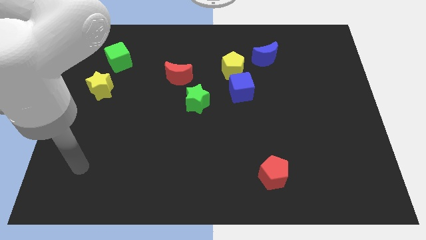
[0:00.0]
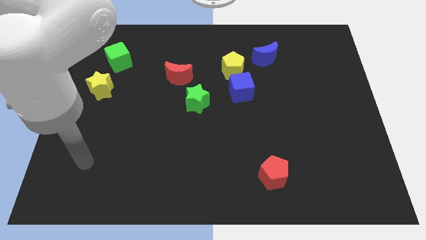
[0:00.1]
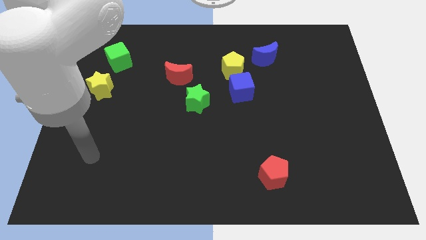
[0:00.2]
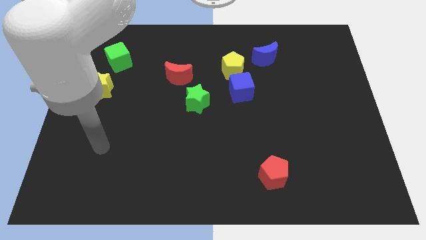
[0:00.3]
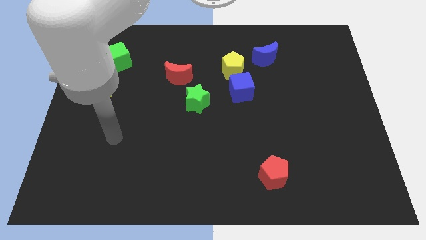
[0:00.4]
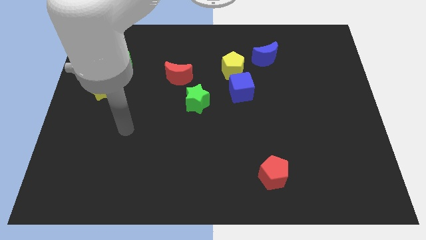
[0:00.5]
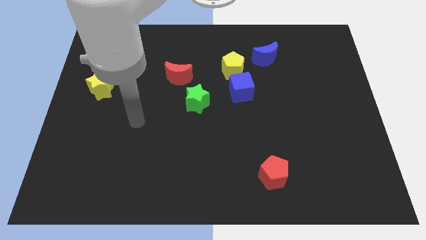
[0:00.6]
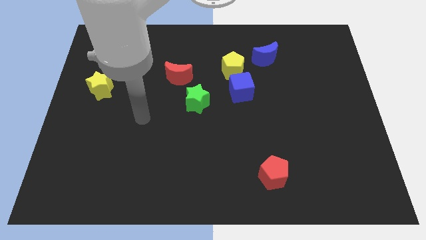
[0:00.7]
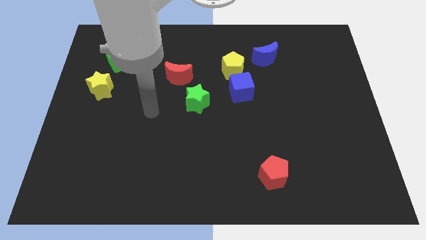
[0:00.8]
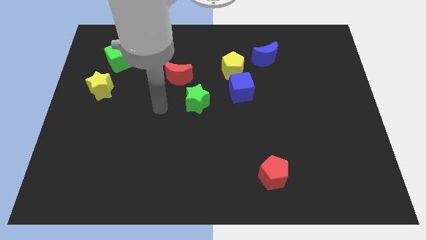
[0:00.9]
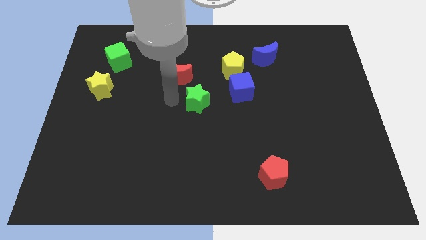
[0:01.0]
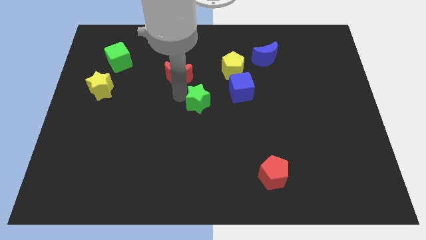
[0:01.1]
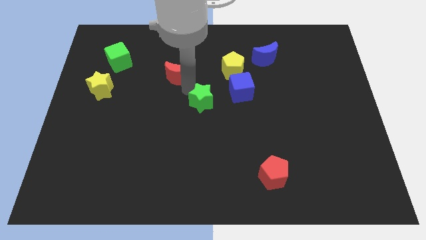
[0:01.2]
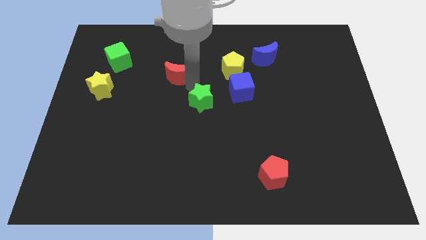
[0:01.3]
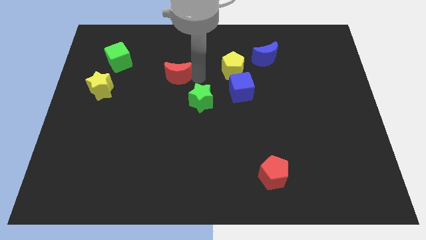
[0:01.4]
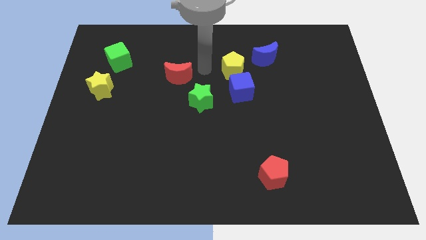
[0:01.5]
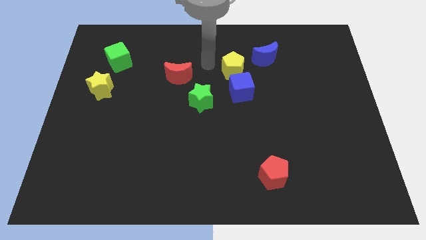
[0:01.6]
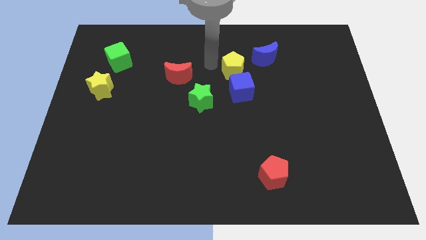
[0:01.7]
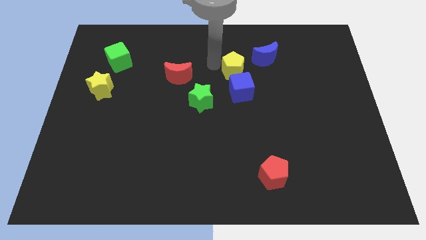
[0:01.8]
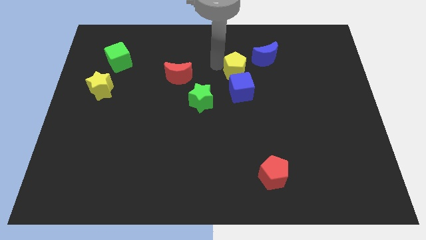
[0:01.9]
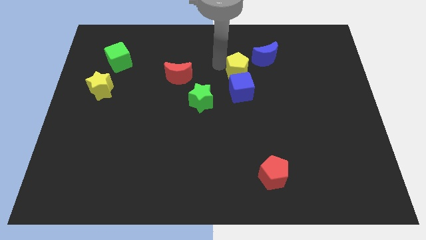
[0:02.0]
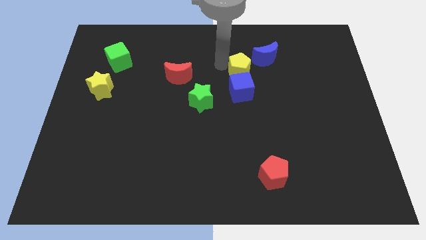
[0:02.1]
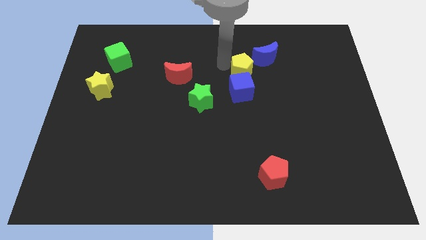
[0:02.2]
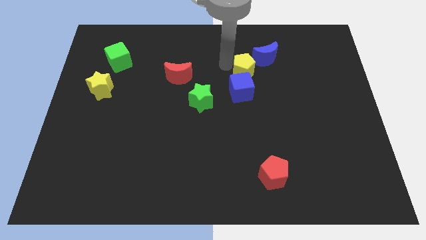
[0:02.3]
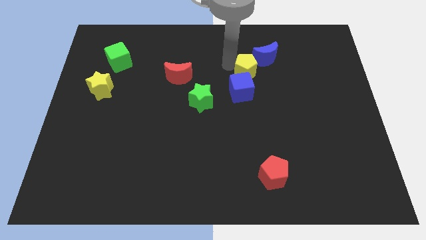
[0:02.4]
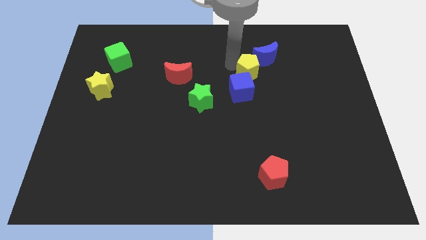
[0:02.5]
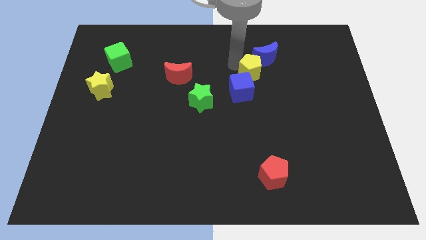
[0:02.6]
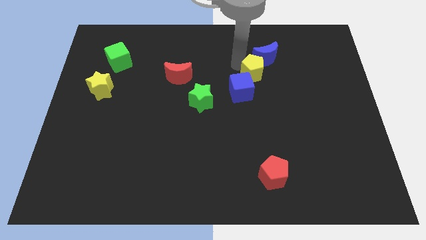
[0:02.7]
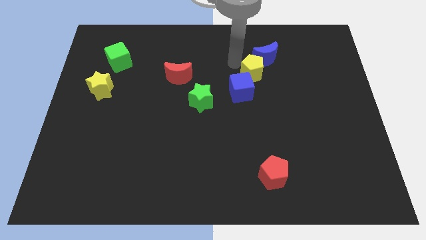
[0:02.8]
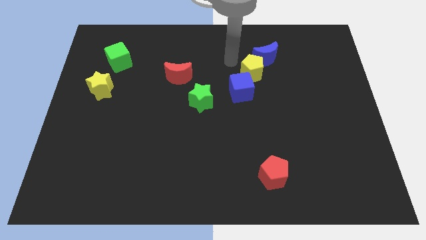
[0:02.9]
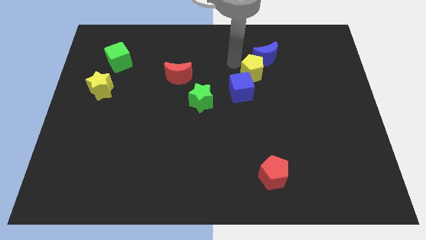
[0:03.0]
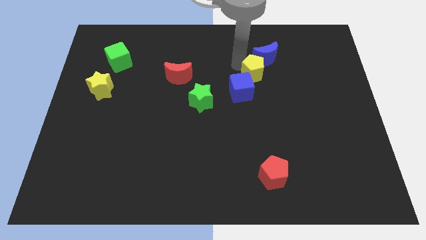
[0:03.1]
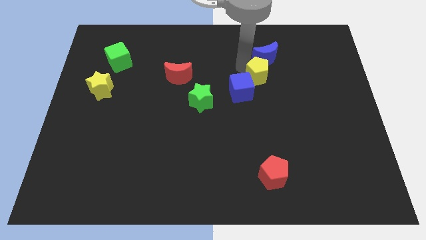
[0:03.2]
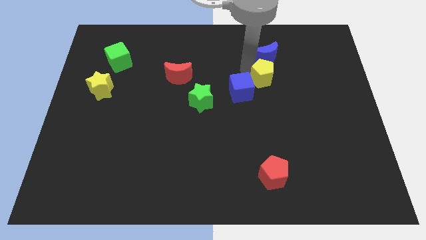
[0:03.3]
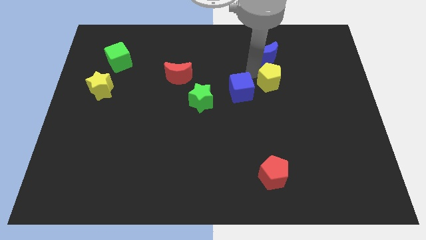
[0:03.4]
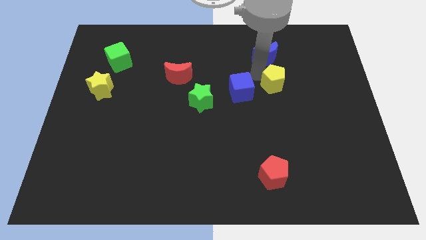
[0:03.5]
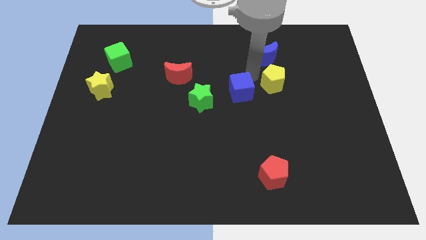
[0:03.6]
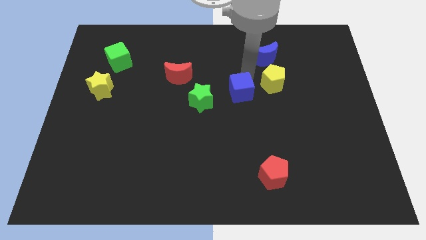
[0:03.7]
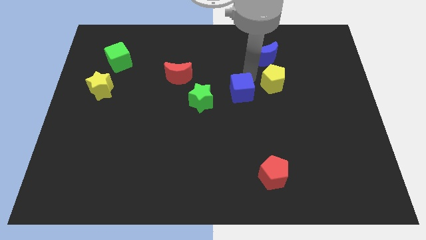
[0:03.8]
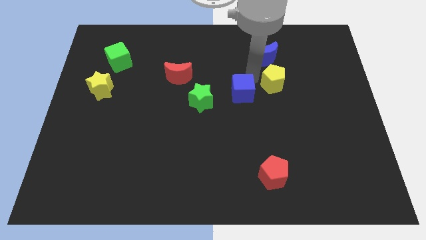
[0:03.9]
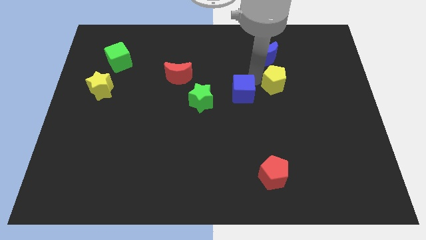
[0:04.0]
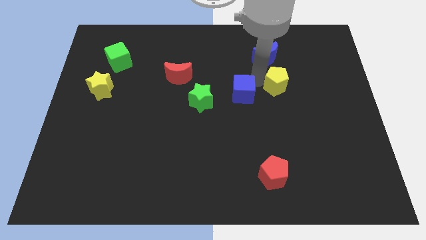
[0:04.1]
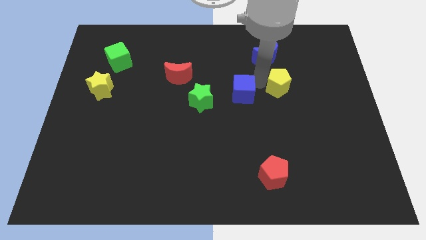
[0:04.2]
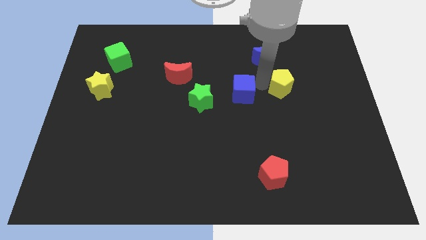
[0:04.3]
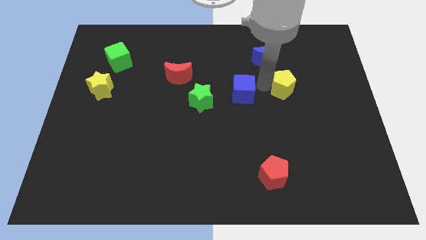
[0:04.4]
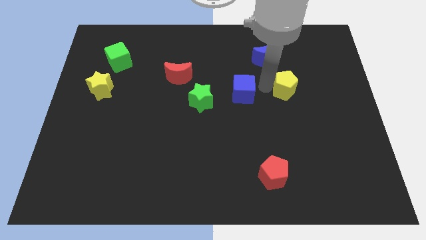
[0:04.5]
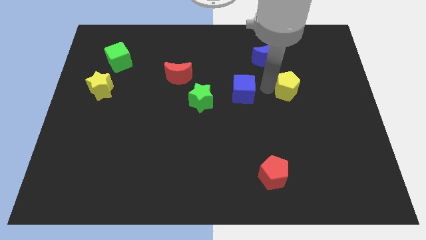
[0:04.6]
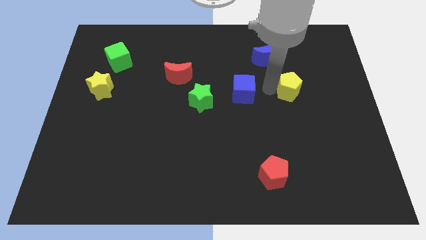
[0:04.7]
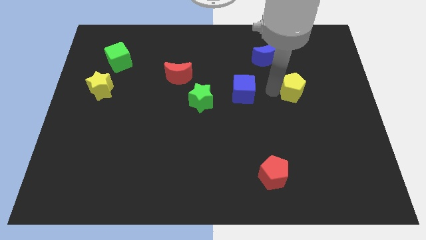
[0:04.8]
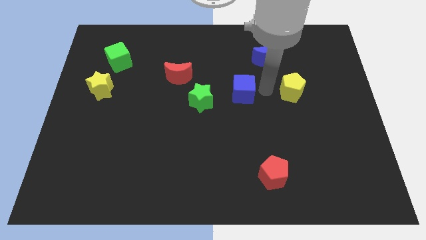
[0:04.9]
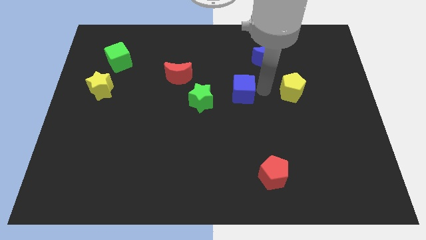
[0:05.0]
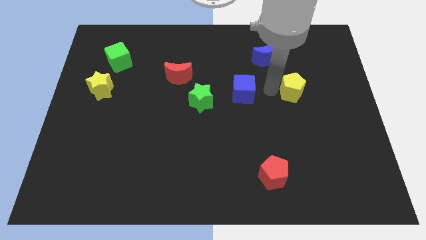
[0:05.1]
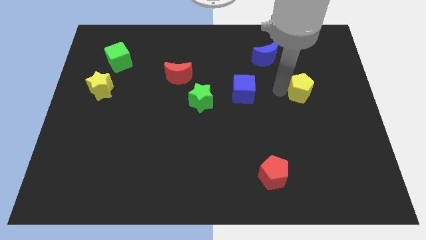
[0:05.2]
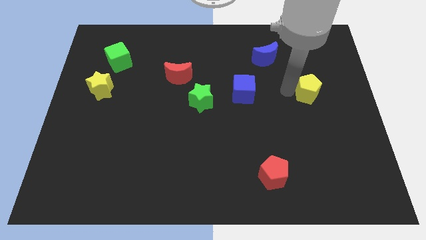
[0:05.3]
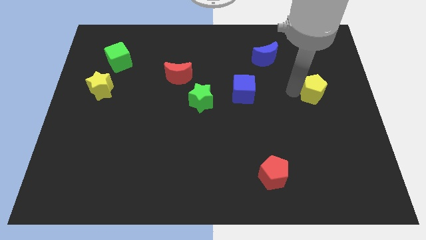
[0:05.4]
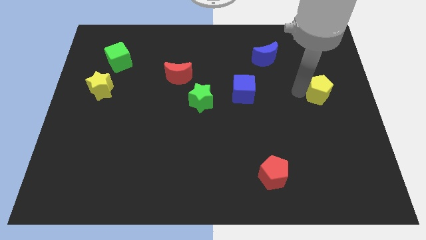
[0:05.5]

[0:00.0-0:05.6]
put the yellow pentagon to the right side
